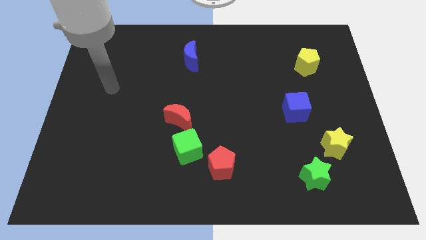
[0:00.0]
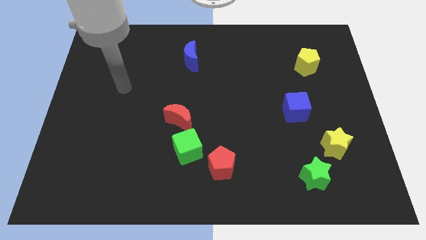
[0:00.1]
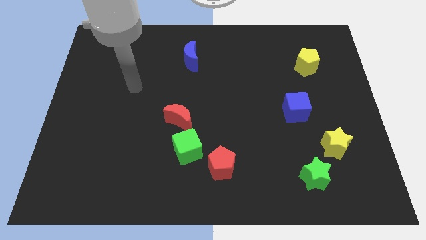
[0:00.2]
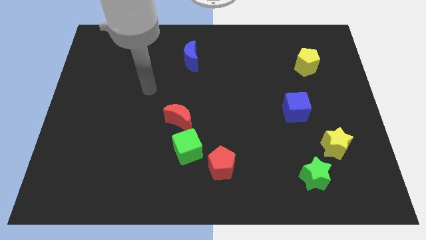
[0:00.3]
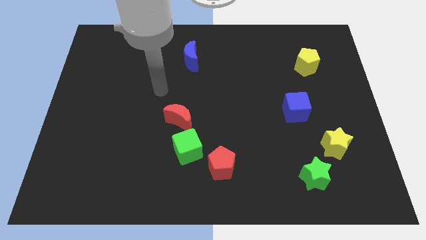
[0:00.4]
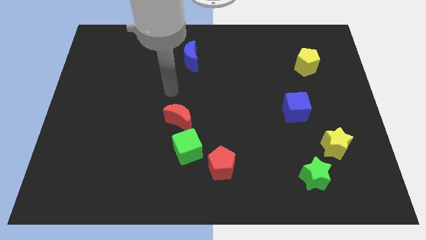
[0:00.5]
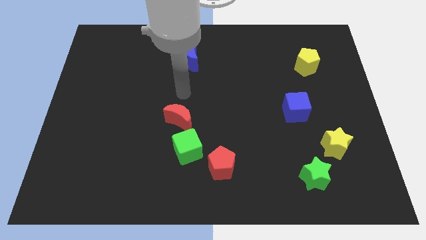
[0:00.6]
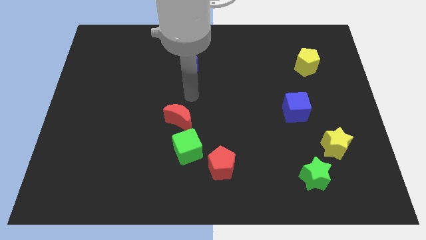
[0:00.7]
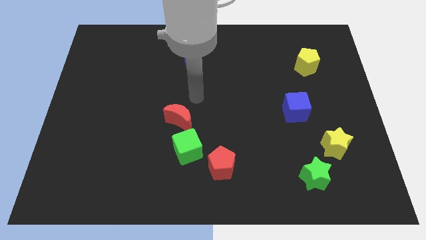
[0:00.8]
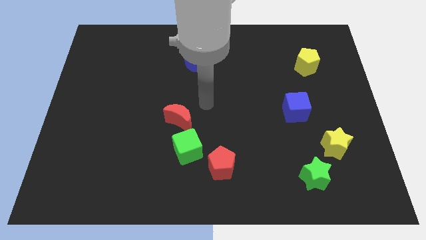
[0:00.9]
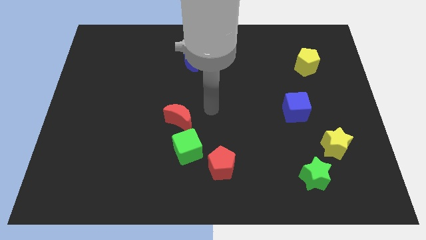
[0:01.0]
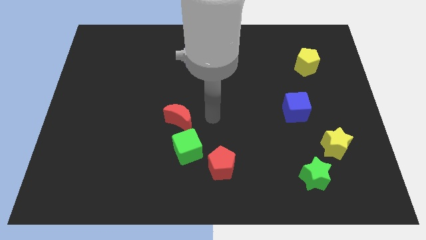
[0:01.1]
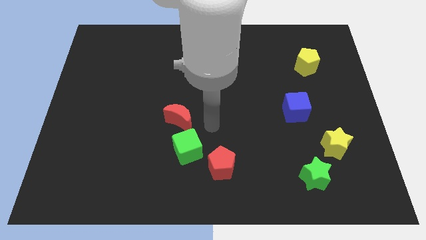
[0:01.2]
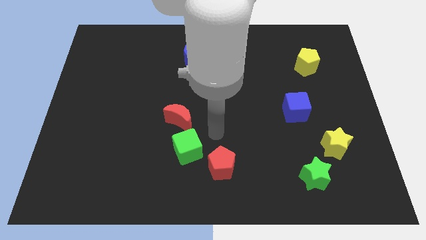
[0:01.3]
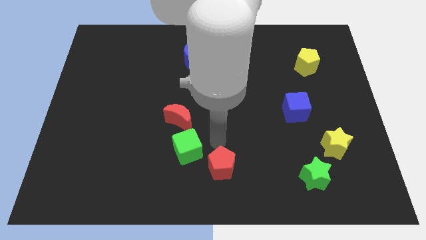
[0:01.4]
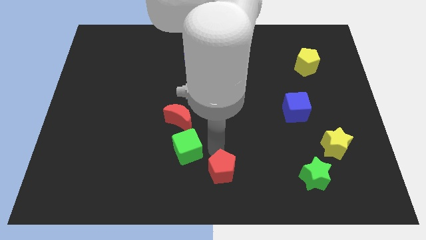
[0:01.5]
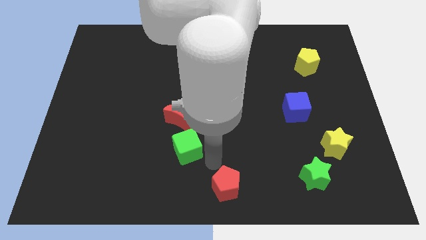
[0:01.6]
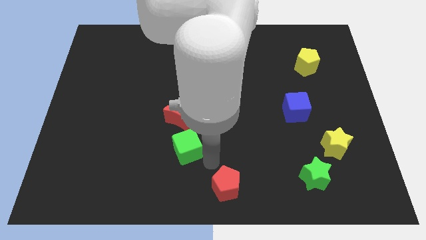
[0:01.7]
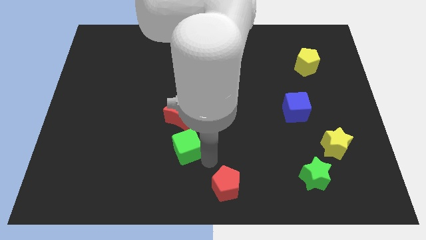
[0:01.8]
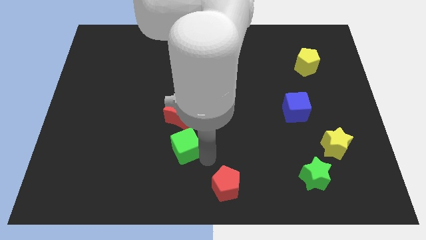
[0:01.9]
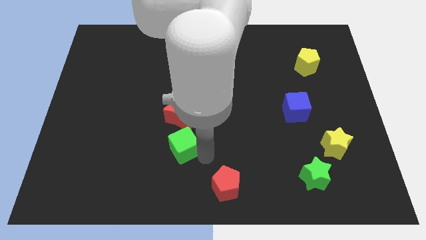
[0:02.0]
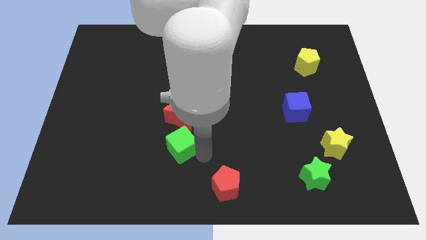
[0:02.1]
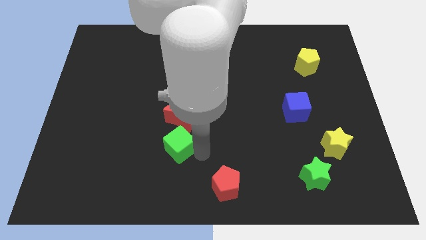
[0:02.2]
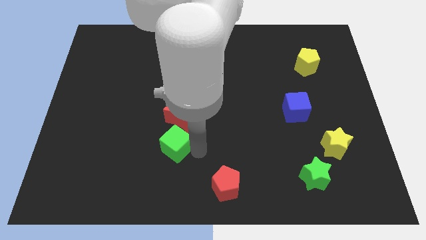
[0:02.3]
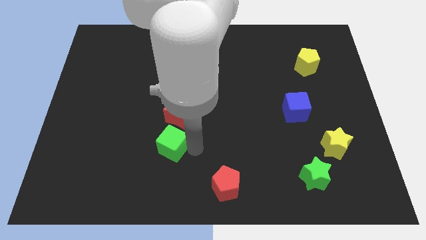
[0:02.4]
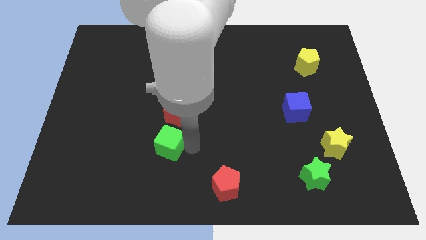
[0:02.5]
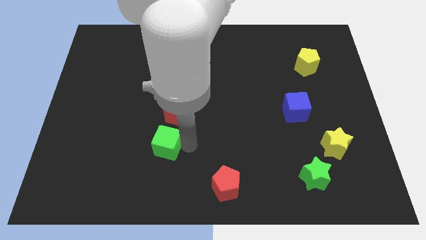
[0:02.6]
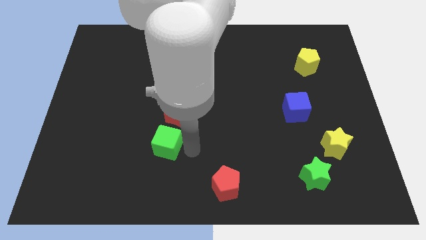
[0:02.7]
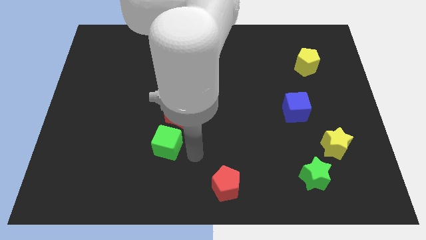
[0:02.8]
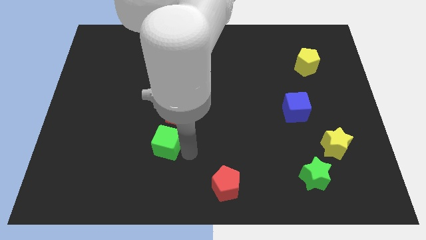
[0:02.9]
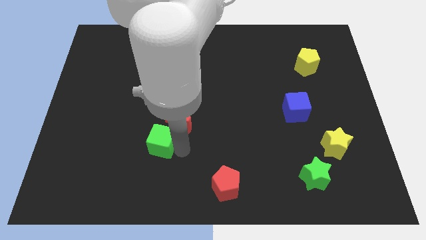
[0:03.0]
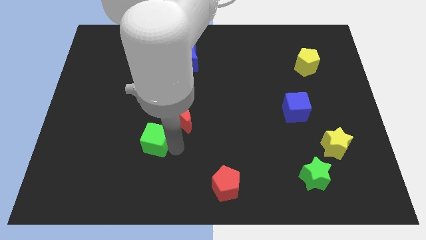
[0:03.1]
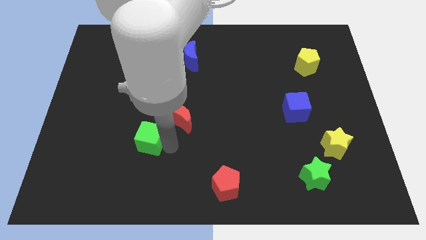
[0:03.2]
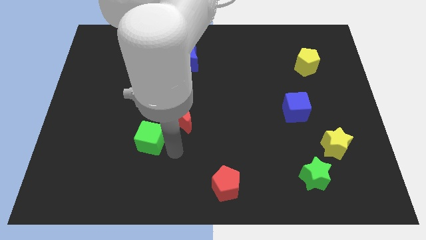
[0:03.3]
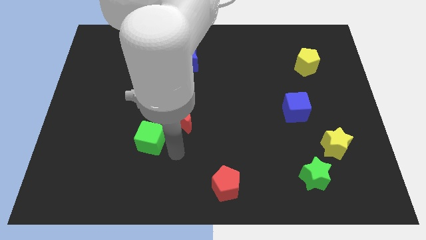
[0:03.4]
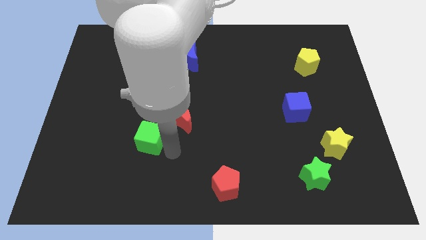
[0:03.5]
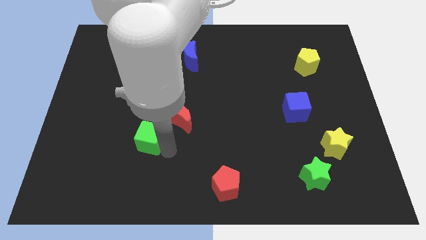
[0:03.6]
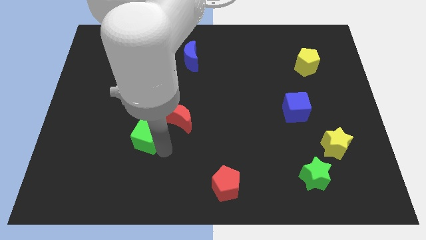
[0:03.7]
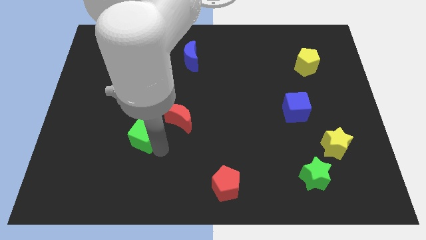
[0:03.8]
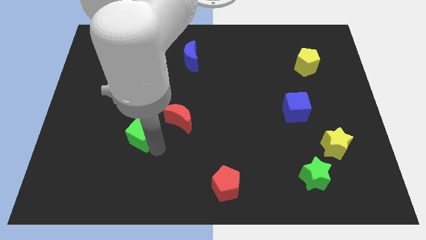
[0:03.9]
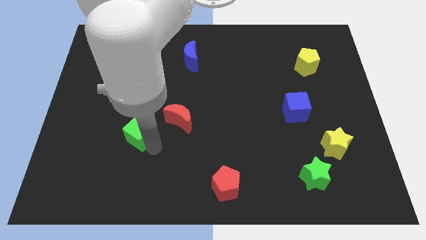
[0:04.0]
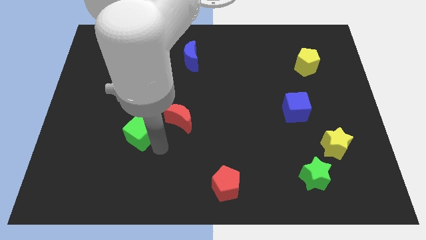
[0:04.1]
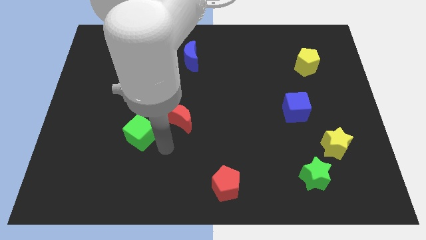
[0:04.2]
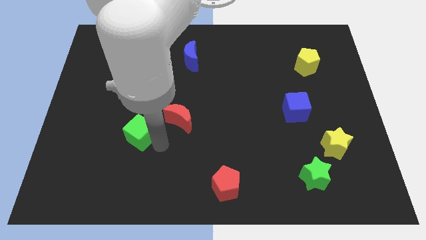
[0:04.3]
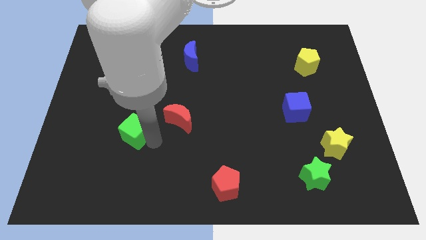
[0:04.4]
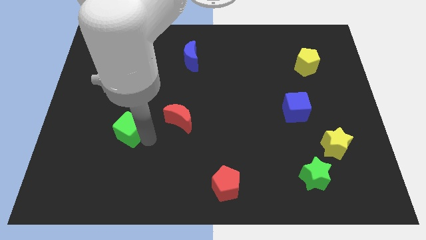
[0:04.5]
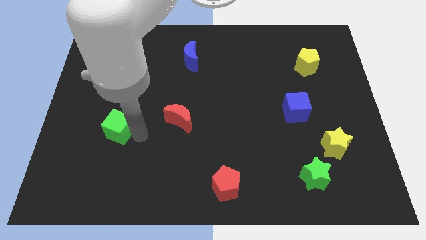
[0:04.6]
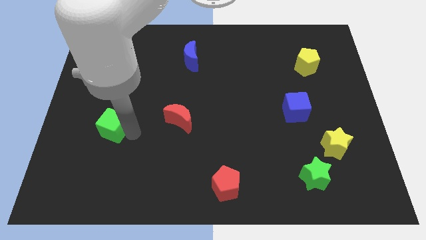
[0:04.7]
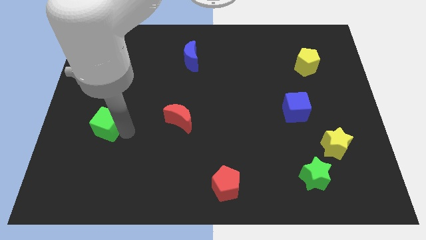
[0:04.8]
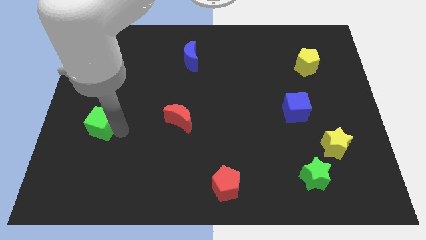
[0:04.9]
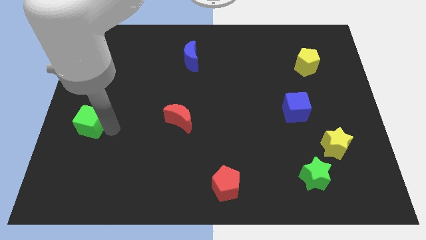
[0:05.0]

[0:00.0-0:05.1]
slide the green cube to the left side of the board

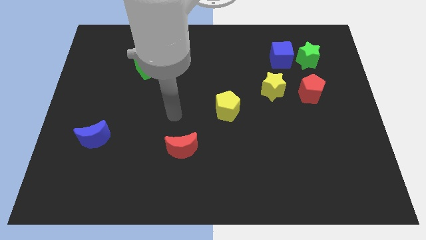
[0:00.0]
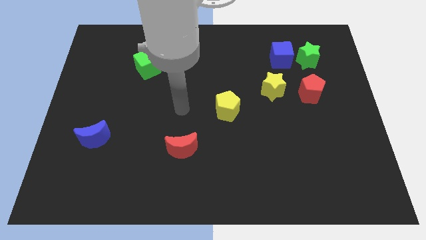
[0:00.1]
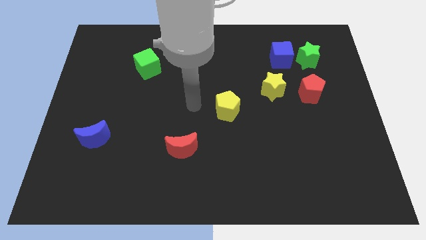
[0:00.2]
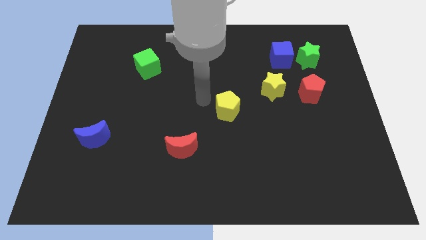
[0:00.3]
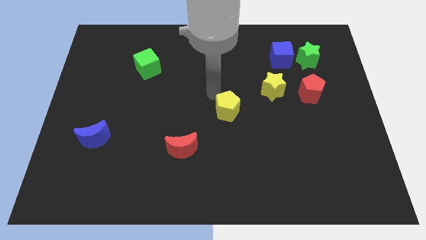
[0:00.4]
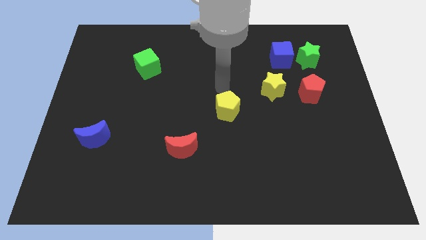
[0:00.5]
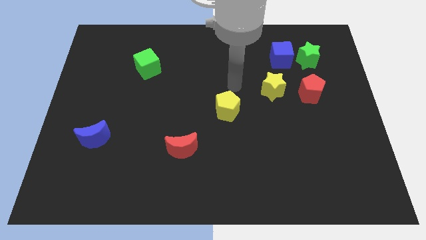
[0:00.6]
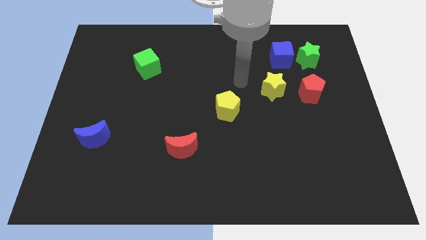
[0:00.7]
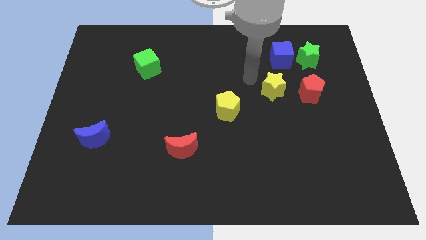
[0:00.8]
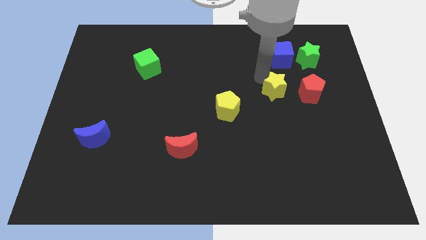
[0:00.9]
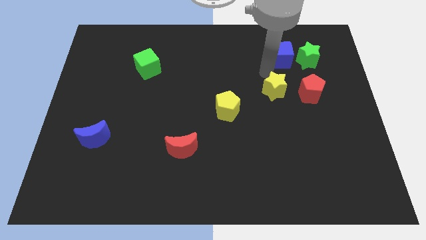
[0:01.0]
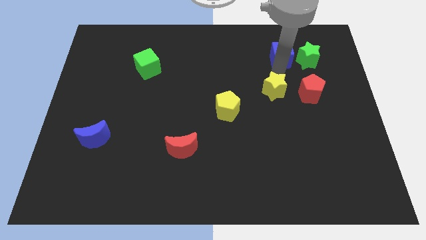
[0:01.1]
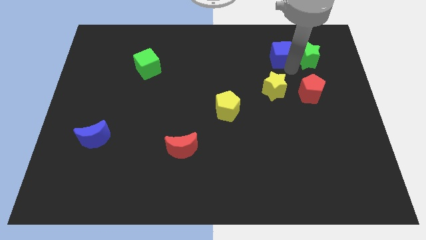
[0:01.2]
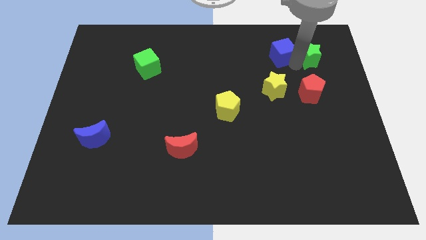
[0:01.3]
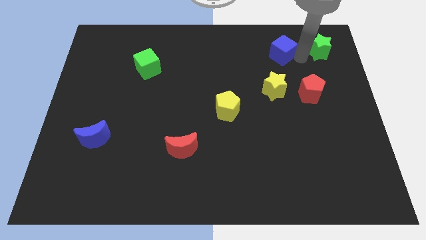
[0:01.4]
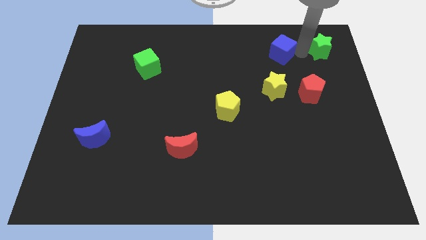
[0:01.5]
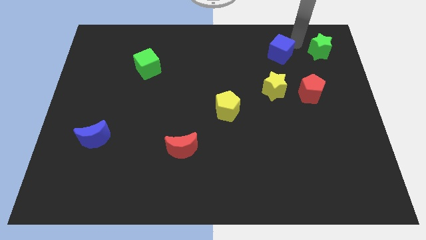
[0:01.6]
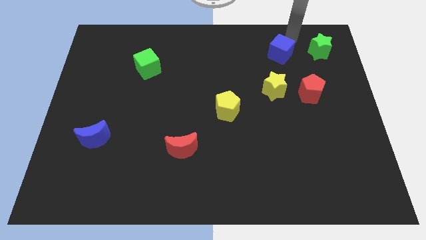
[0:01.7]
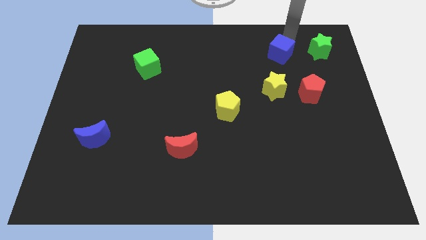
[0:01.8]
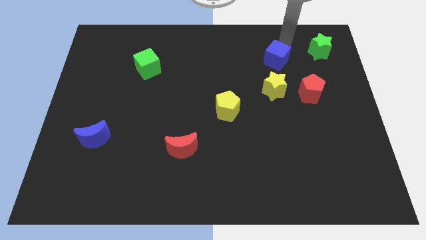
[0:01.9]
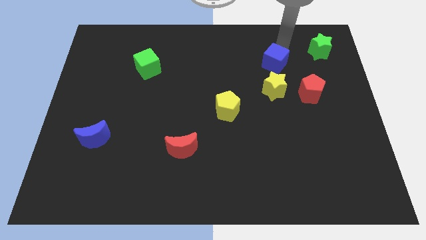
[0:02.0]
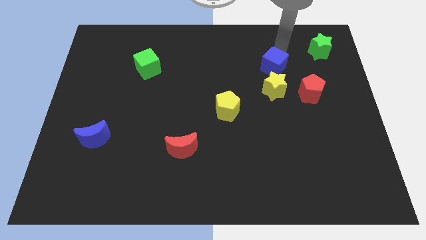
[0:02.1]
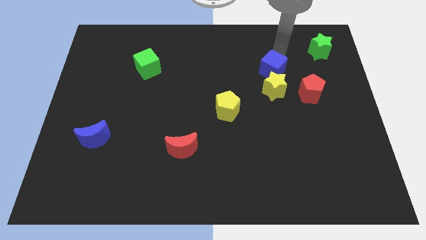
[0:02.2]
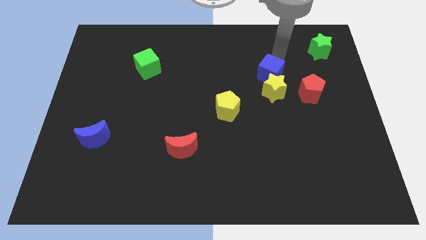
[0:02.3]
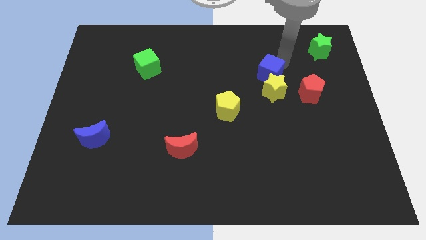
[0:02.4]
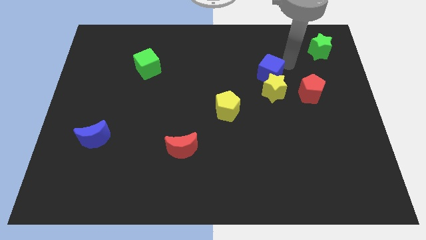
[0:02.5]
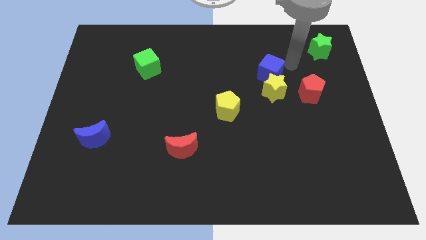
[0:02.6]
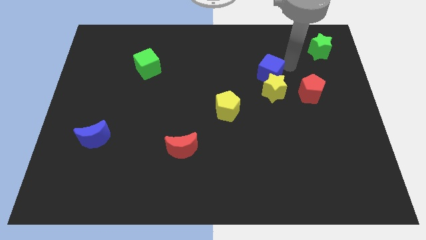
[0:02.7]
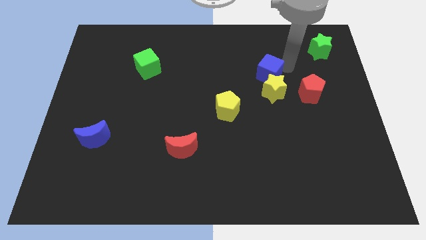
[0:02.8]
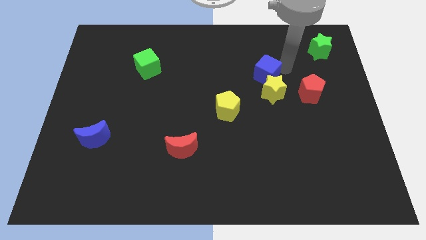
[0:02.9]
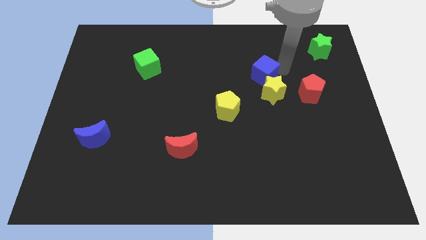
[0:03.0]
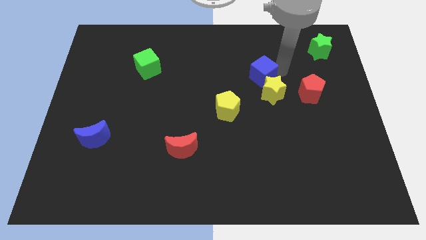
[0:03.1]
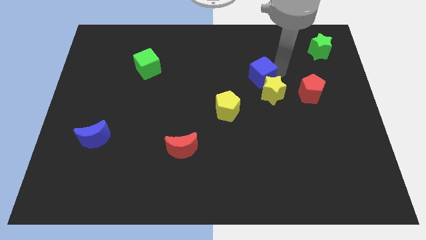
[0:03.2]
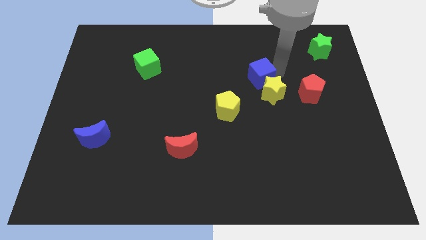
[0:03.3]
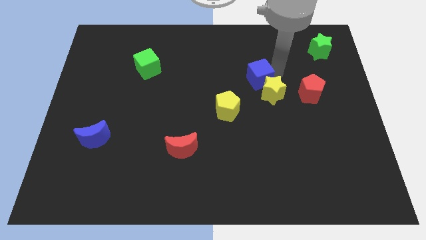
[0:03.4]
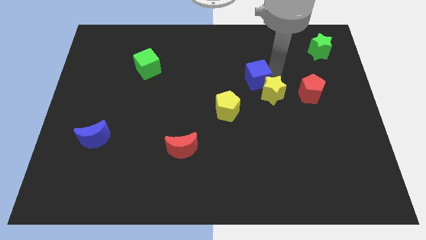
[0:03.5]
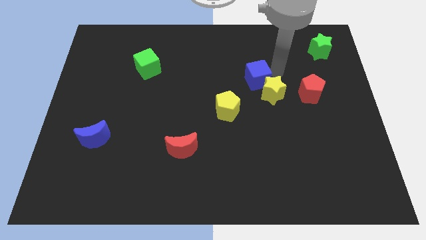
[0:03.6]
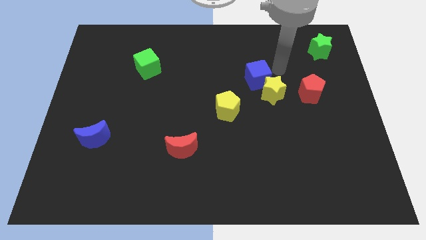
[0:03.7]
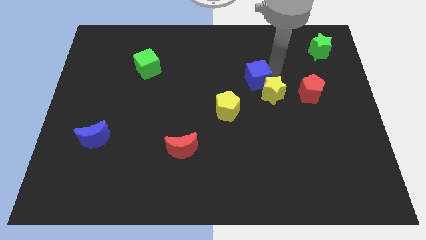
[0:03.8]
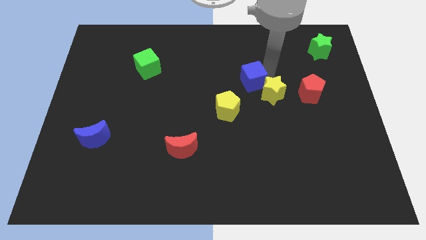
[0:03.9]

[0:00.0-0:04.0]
put the blue cube to the middle of the board
